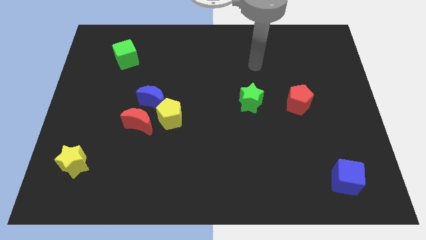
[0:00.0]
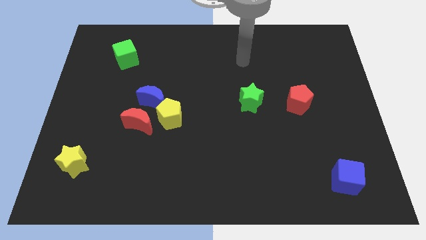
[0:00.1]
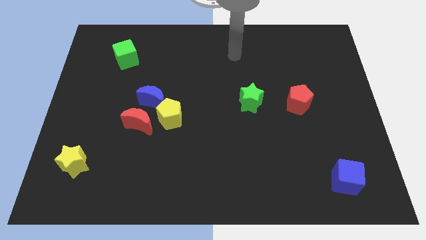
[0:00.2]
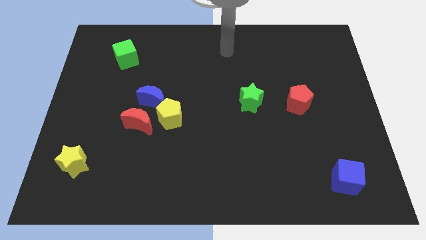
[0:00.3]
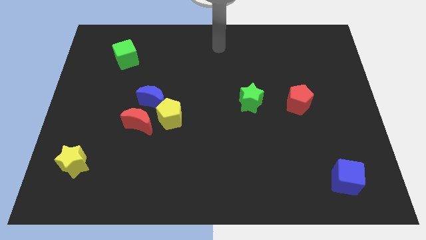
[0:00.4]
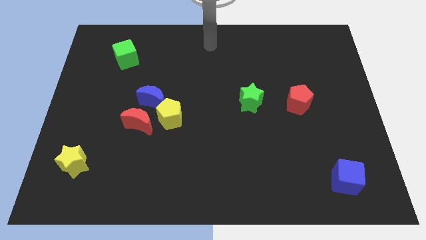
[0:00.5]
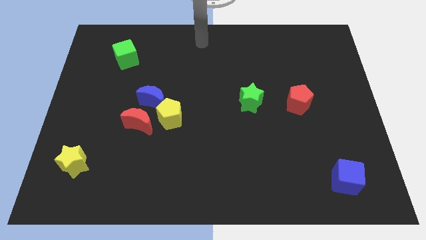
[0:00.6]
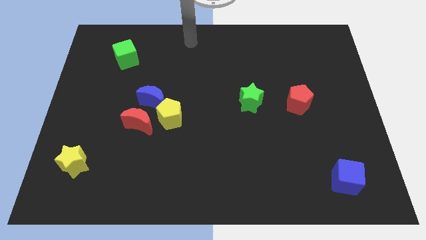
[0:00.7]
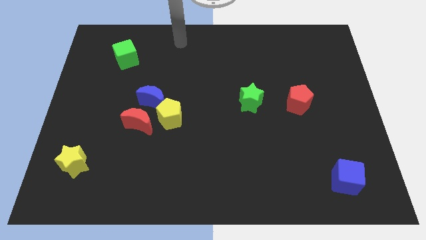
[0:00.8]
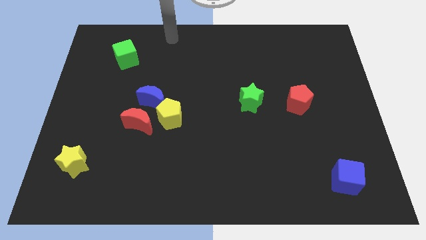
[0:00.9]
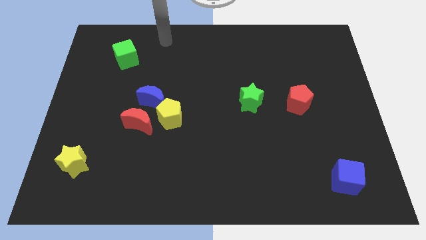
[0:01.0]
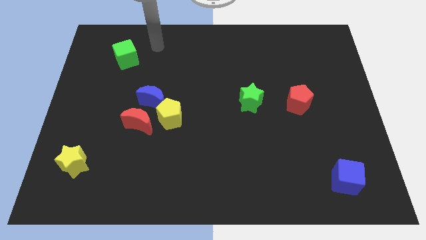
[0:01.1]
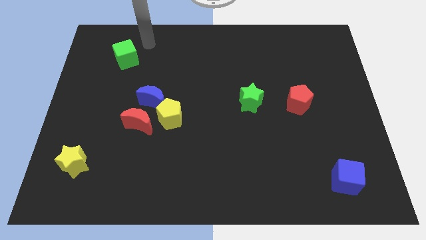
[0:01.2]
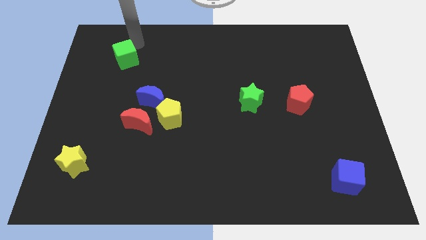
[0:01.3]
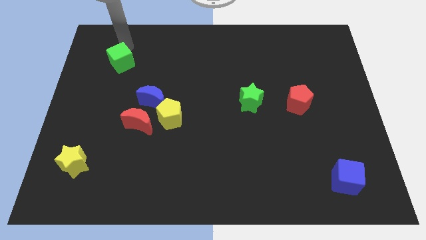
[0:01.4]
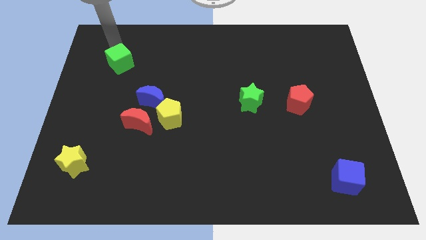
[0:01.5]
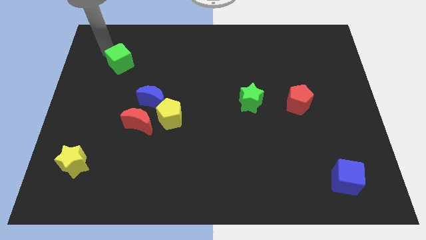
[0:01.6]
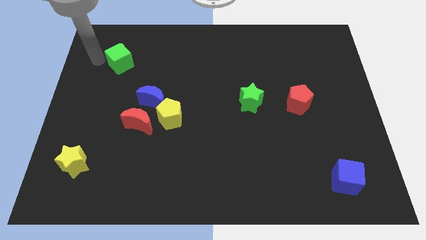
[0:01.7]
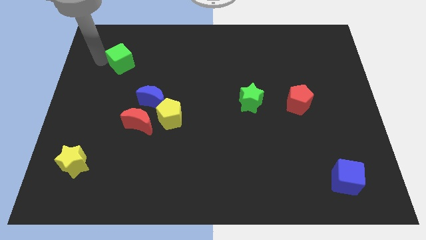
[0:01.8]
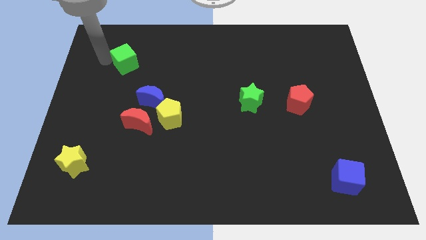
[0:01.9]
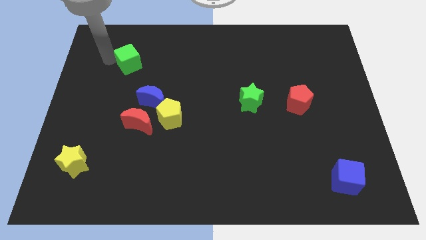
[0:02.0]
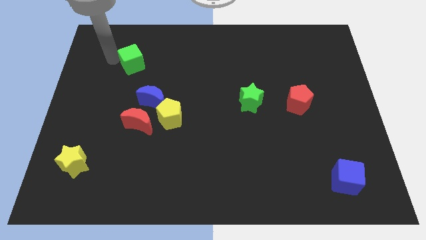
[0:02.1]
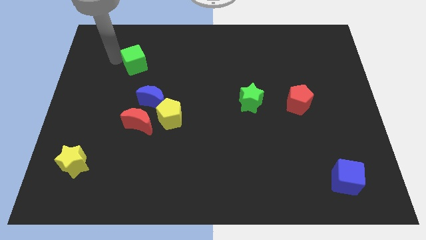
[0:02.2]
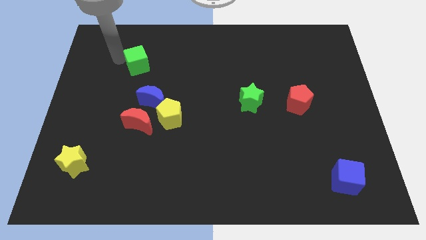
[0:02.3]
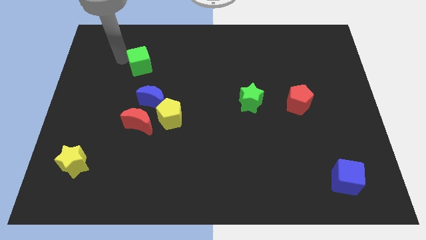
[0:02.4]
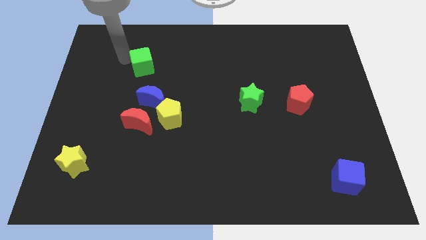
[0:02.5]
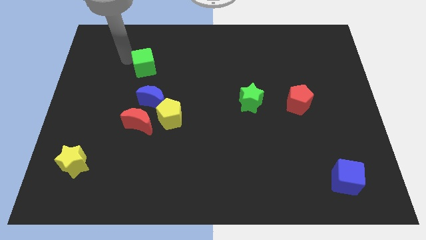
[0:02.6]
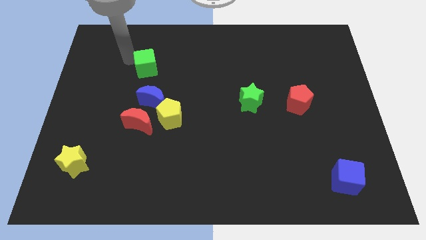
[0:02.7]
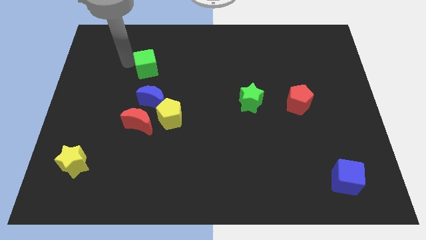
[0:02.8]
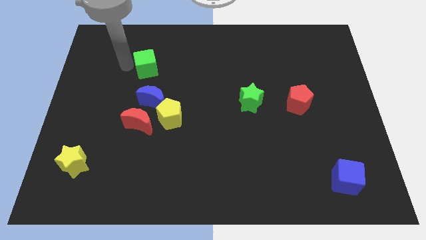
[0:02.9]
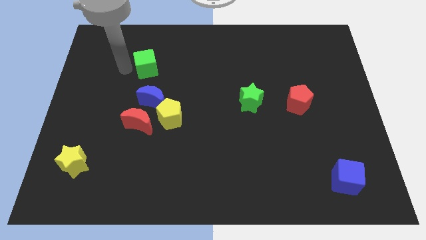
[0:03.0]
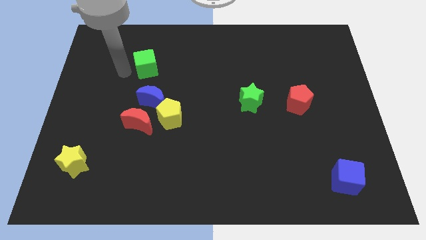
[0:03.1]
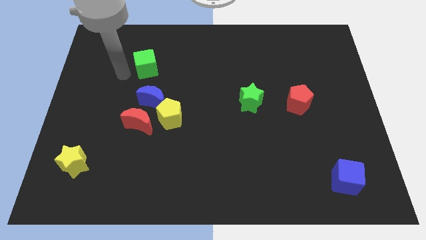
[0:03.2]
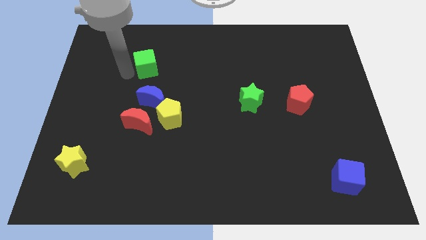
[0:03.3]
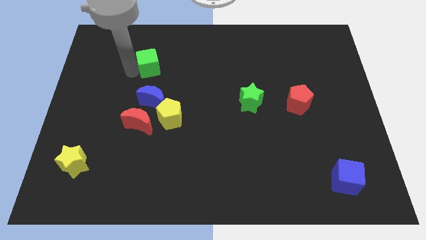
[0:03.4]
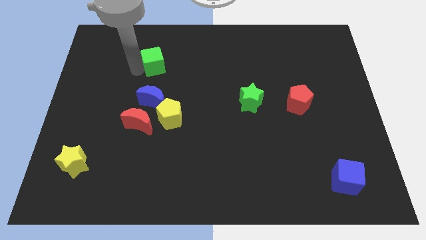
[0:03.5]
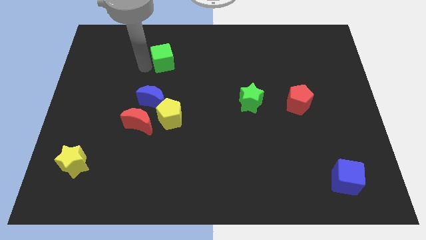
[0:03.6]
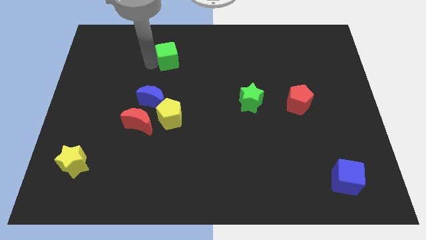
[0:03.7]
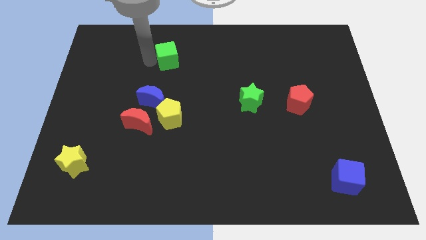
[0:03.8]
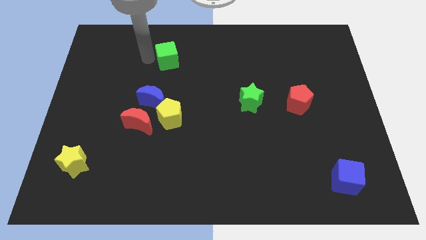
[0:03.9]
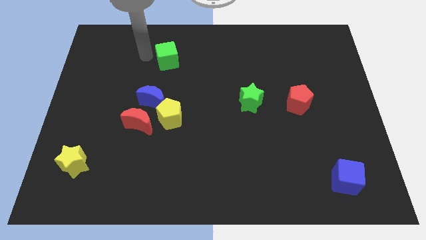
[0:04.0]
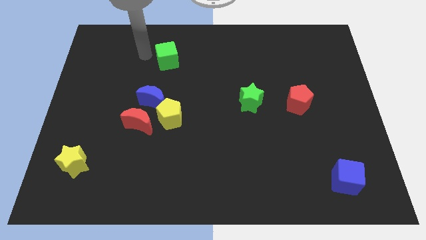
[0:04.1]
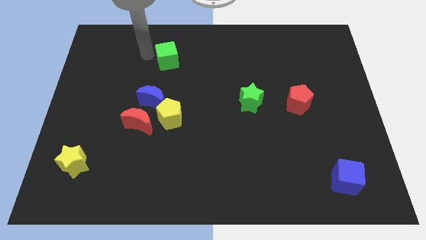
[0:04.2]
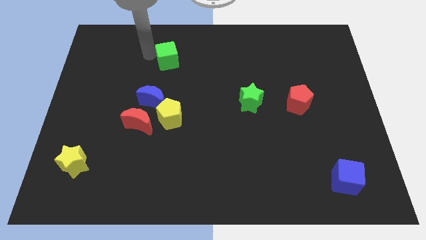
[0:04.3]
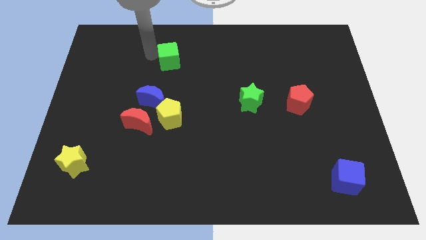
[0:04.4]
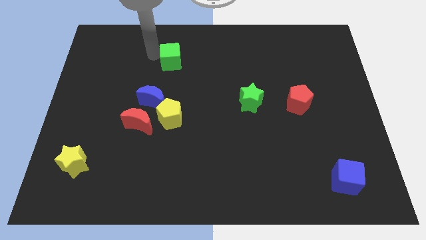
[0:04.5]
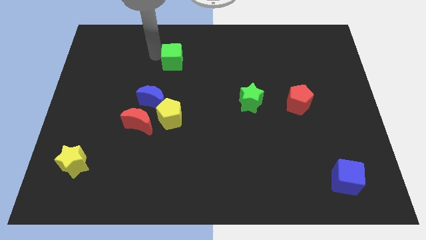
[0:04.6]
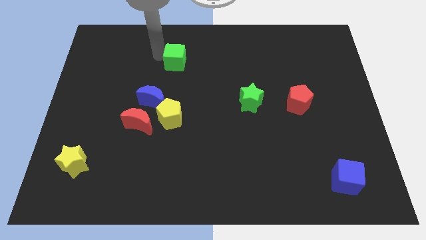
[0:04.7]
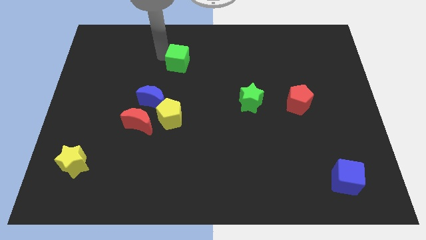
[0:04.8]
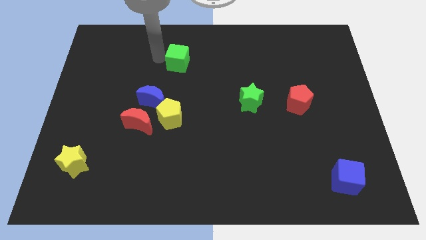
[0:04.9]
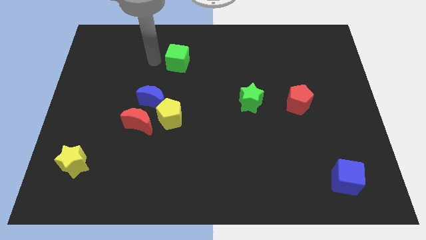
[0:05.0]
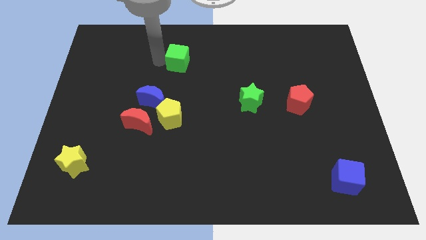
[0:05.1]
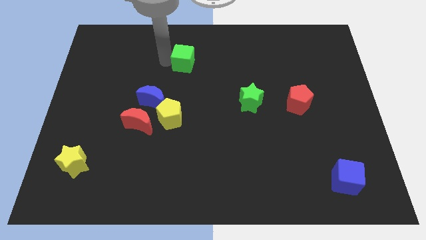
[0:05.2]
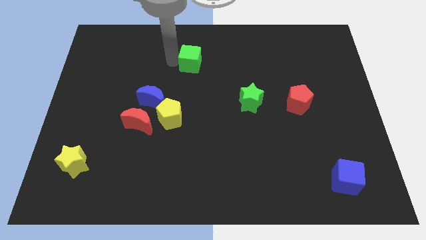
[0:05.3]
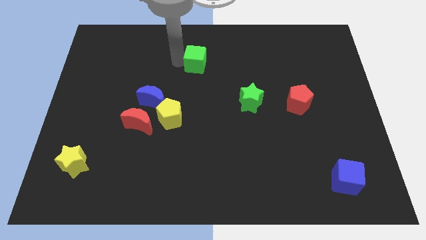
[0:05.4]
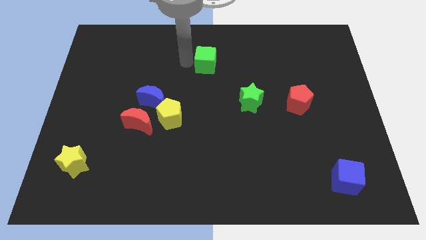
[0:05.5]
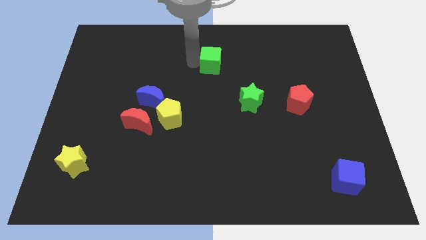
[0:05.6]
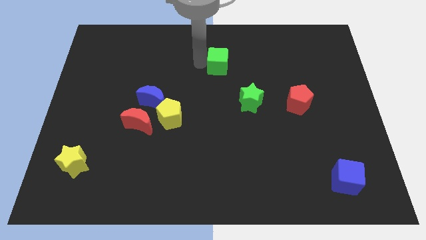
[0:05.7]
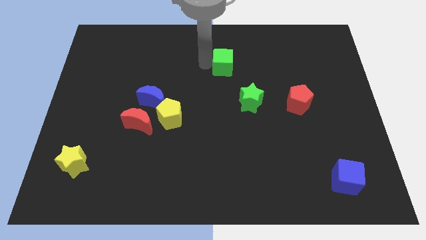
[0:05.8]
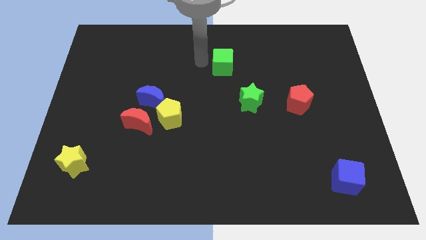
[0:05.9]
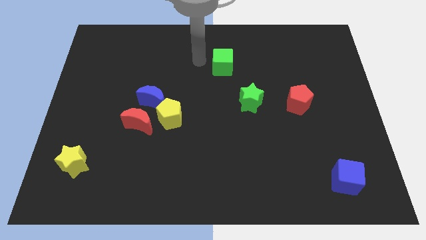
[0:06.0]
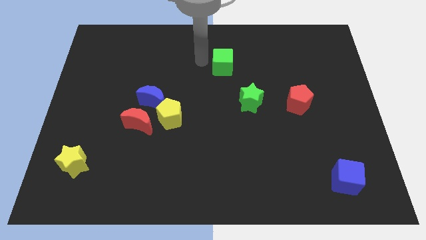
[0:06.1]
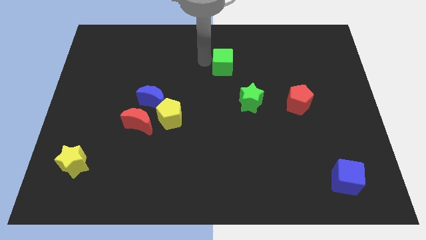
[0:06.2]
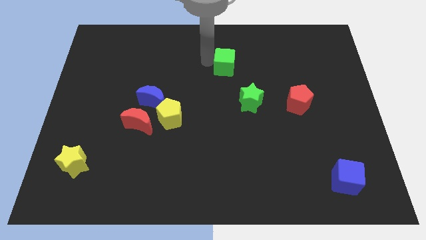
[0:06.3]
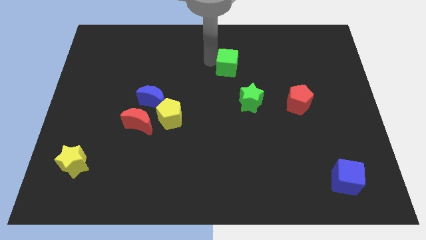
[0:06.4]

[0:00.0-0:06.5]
slide the green cube to the top of the green star

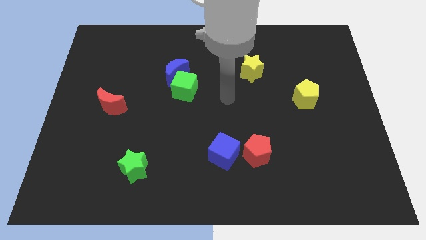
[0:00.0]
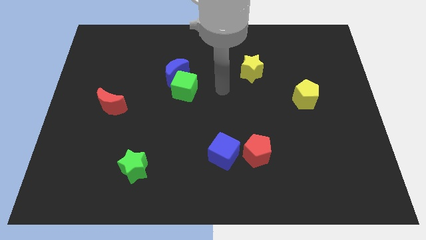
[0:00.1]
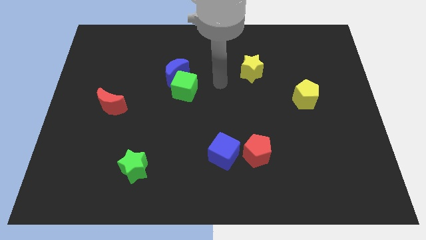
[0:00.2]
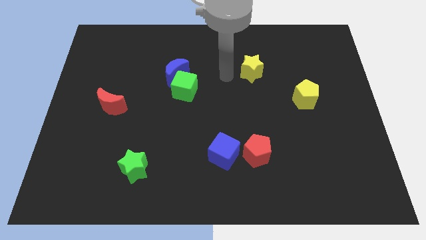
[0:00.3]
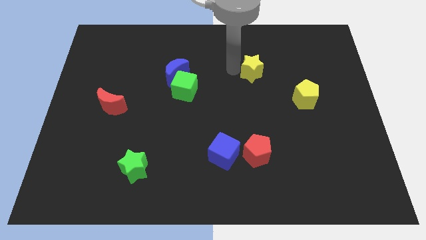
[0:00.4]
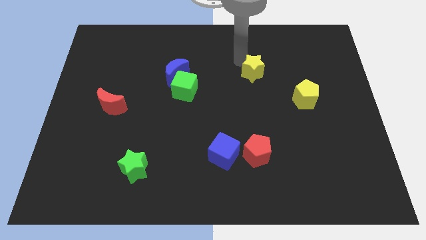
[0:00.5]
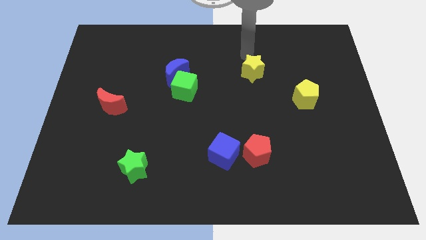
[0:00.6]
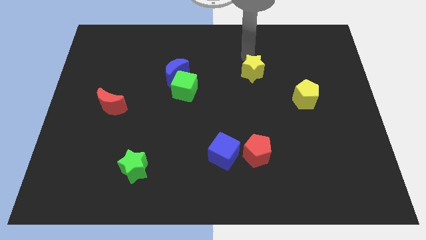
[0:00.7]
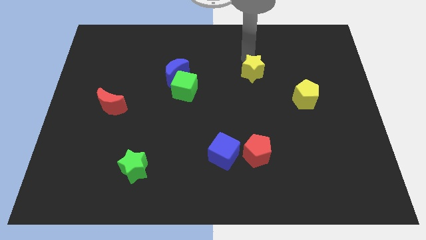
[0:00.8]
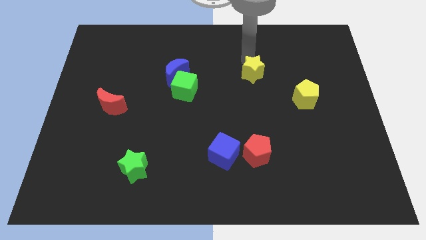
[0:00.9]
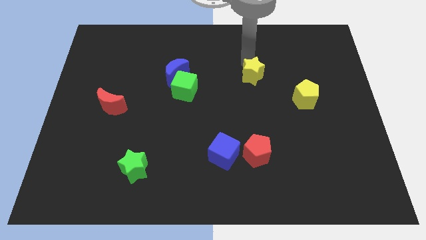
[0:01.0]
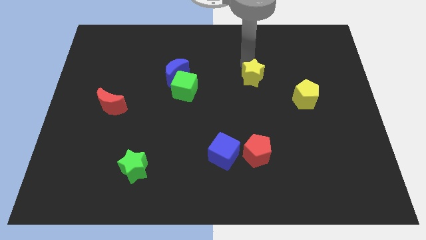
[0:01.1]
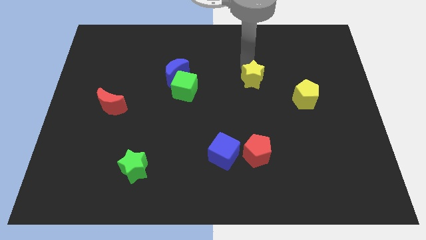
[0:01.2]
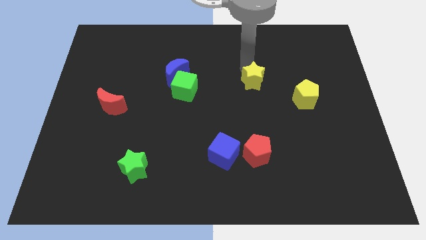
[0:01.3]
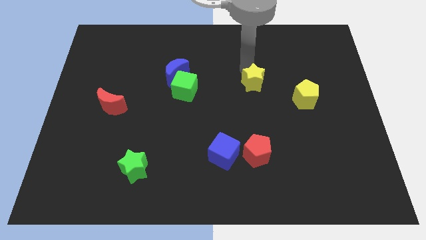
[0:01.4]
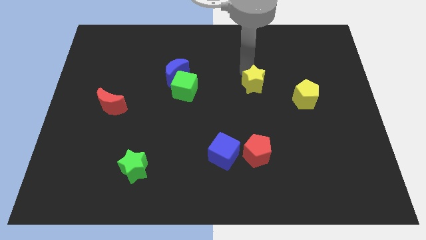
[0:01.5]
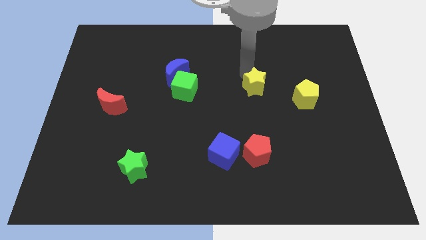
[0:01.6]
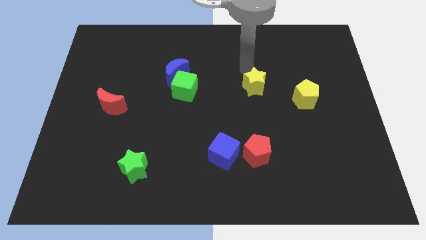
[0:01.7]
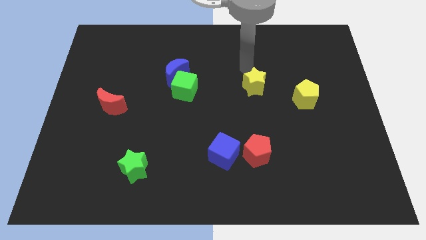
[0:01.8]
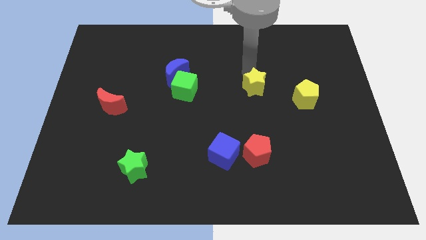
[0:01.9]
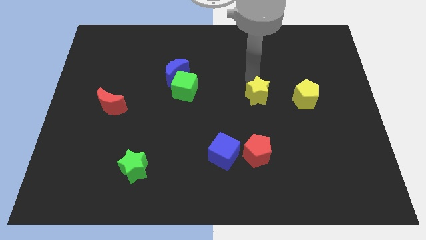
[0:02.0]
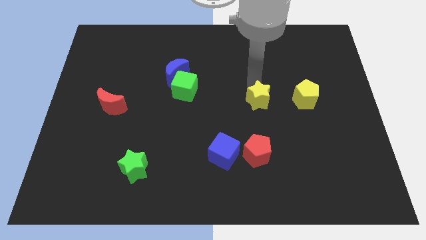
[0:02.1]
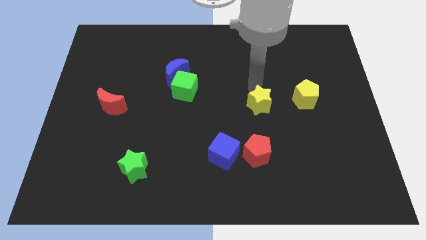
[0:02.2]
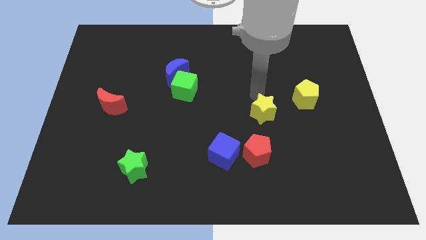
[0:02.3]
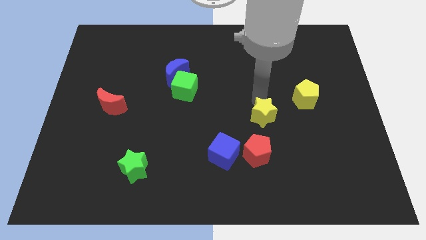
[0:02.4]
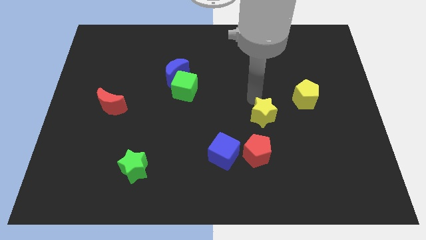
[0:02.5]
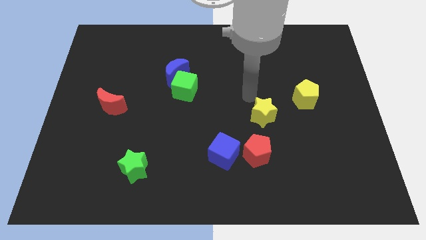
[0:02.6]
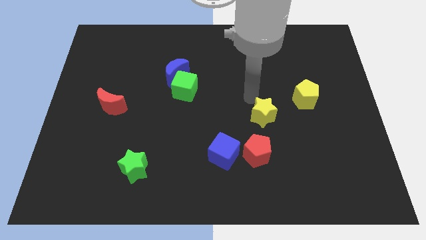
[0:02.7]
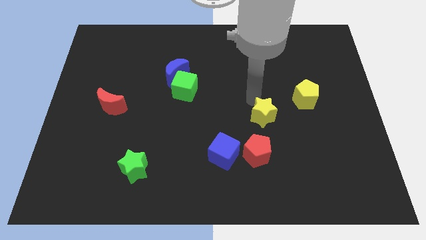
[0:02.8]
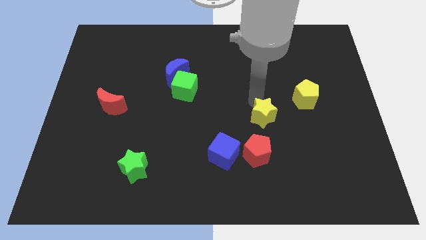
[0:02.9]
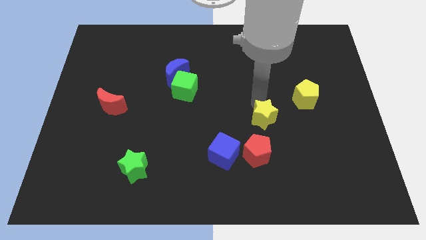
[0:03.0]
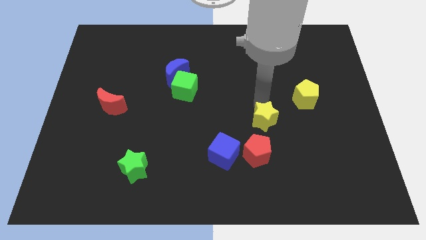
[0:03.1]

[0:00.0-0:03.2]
slide the yellow star to the top right side of the red pentagon
